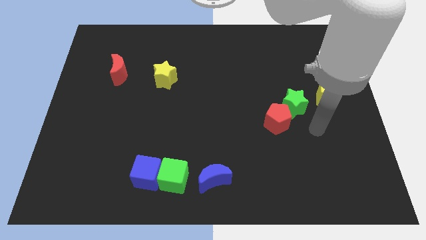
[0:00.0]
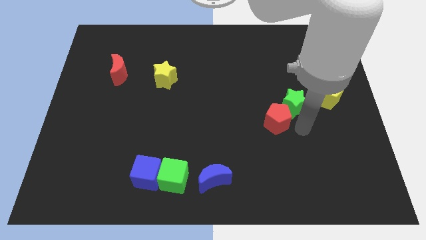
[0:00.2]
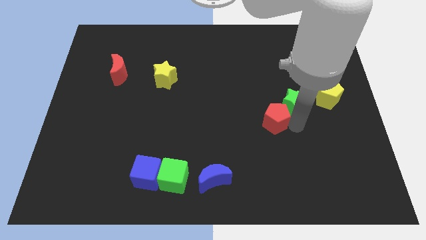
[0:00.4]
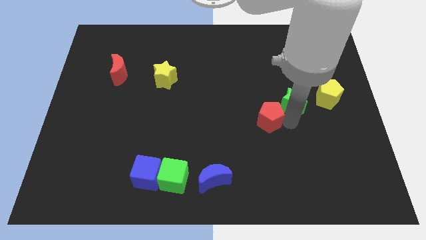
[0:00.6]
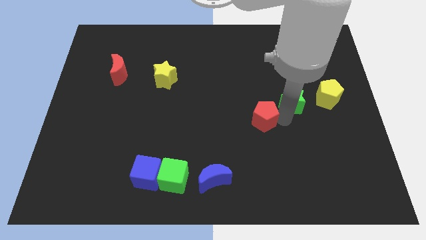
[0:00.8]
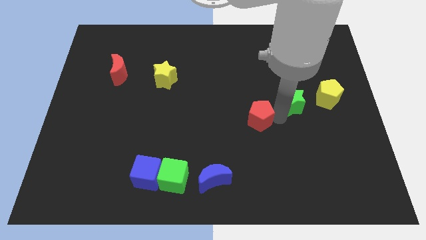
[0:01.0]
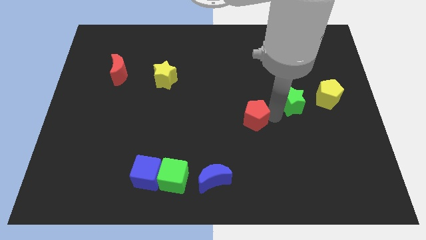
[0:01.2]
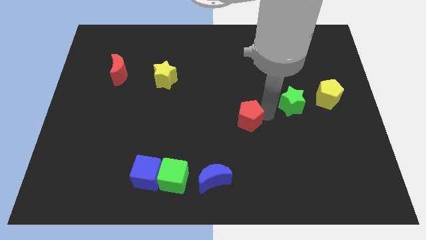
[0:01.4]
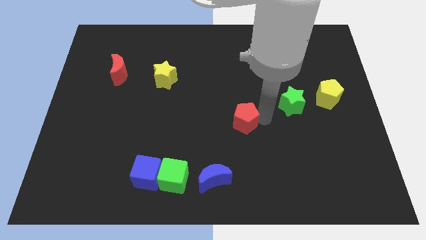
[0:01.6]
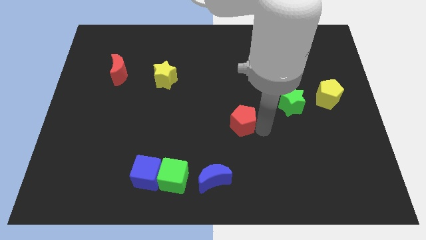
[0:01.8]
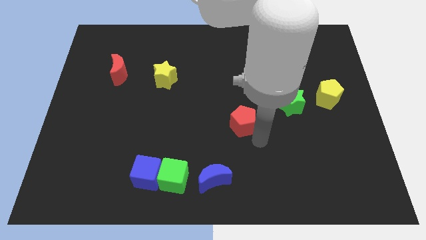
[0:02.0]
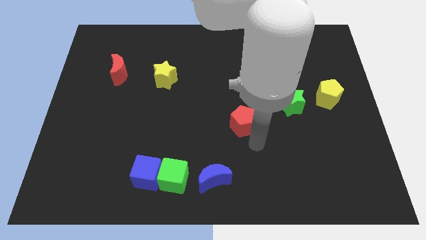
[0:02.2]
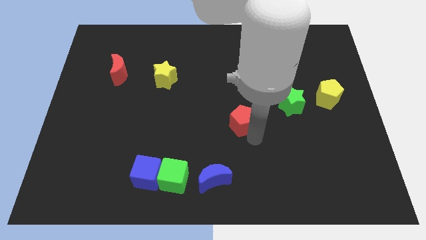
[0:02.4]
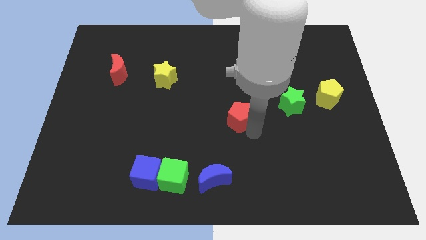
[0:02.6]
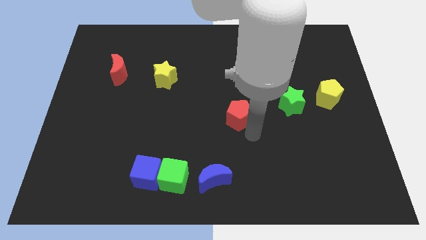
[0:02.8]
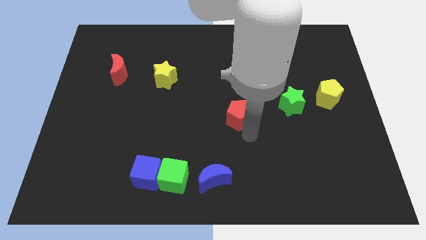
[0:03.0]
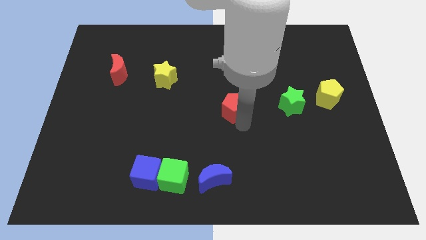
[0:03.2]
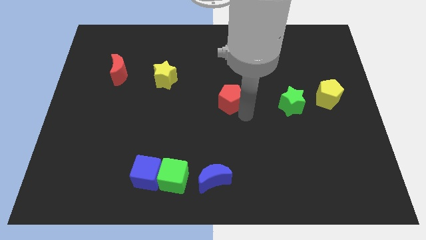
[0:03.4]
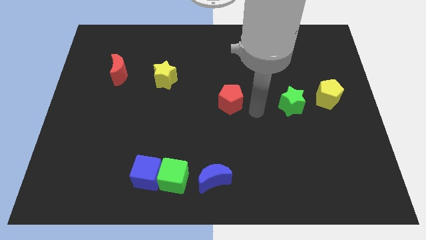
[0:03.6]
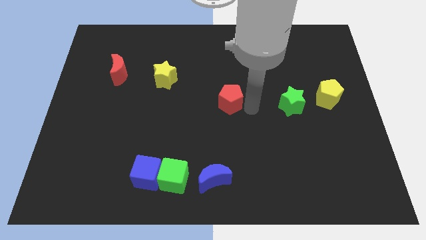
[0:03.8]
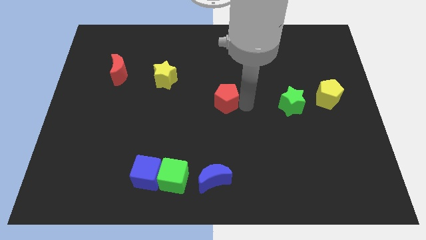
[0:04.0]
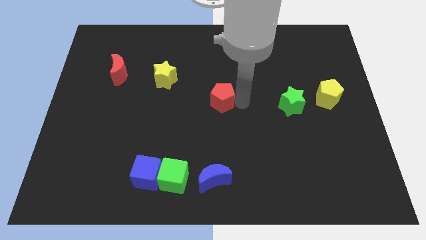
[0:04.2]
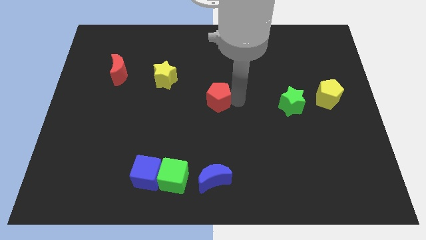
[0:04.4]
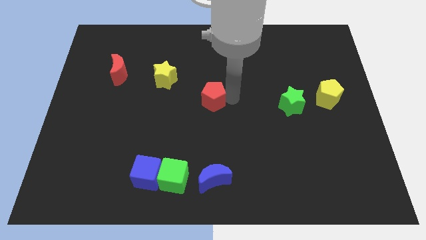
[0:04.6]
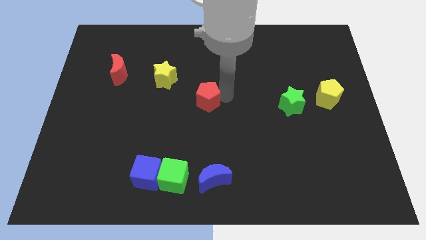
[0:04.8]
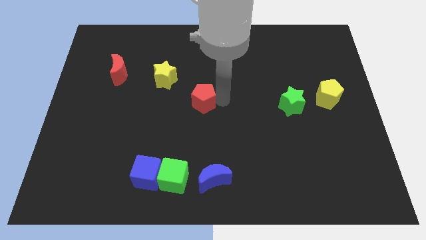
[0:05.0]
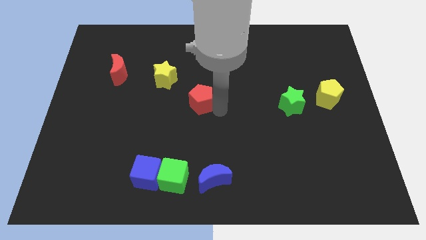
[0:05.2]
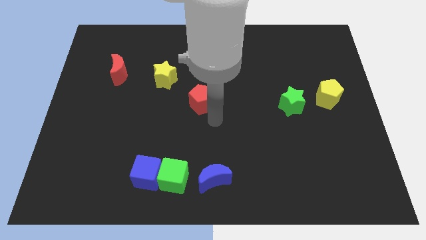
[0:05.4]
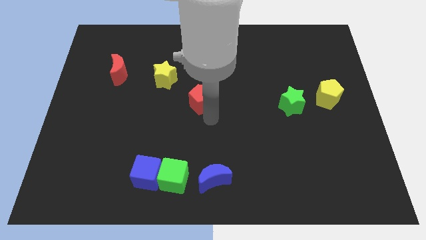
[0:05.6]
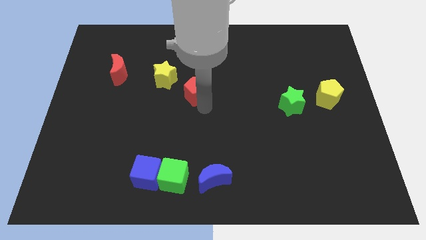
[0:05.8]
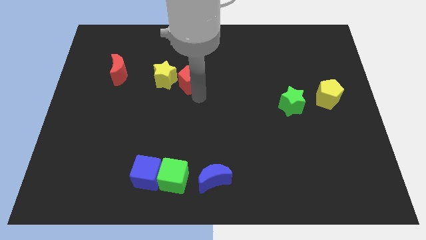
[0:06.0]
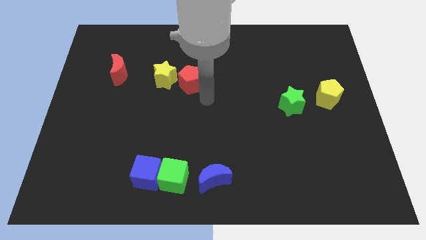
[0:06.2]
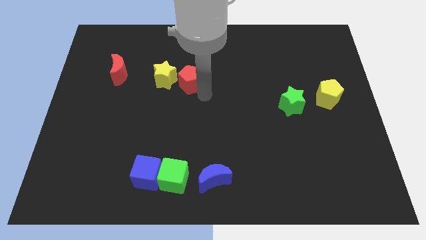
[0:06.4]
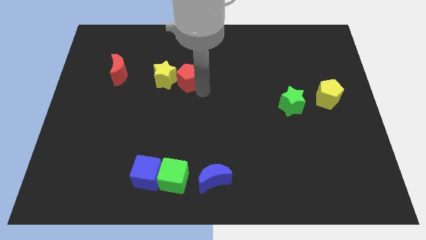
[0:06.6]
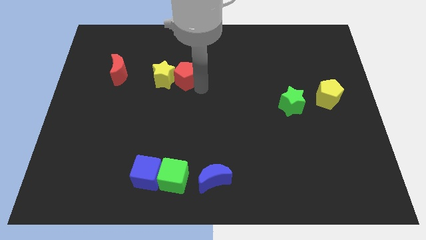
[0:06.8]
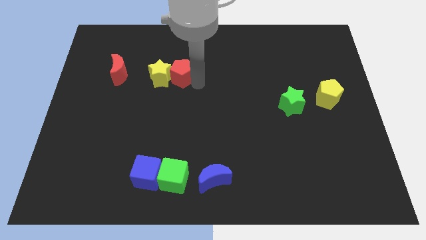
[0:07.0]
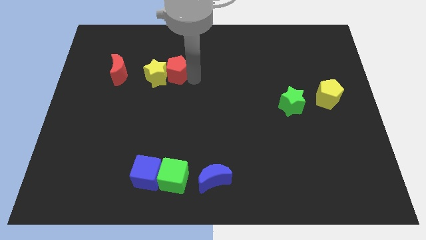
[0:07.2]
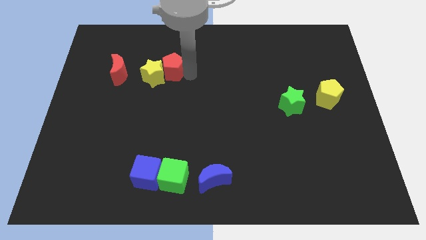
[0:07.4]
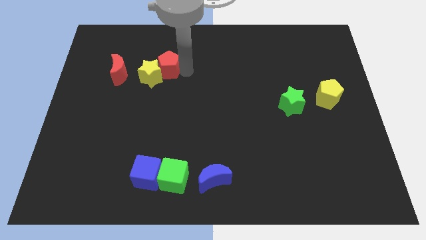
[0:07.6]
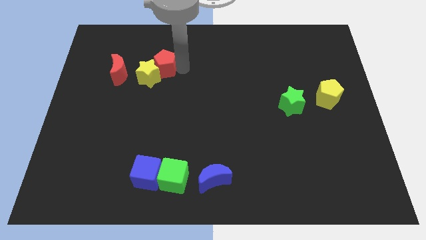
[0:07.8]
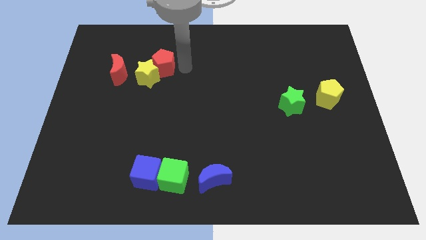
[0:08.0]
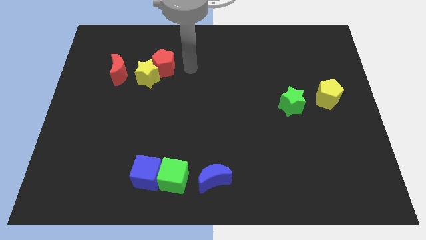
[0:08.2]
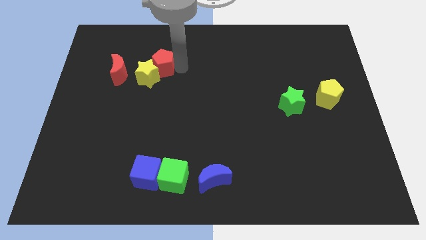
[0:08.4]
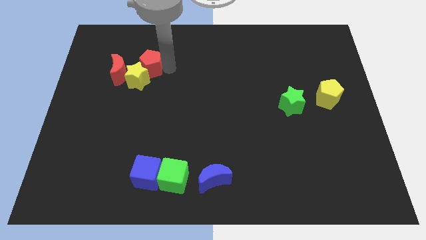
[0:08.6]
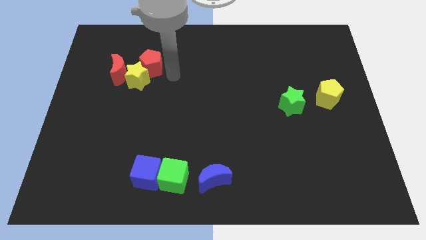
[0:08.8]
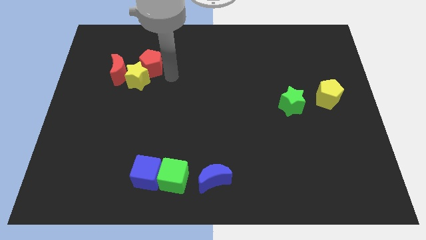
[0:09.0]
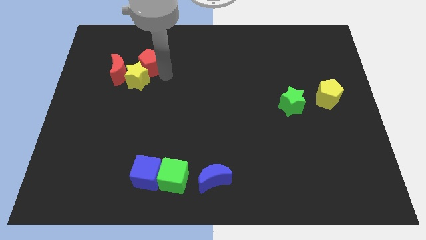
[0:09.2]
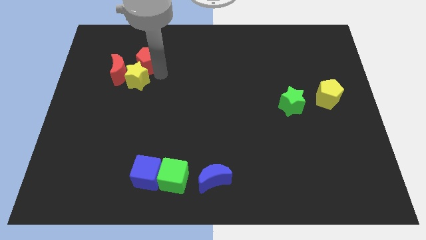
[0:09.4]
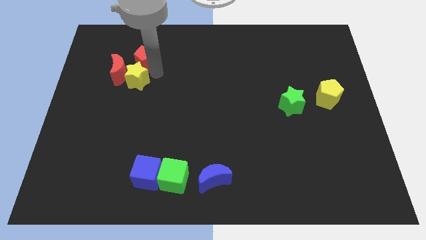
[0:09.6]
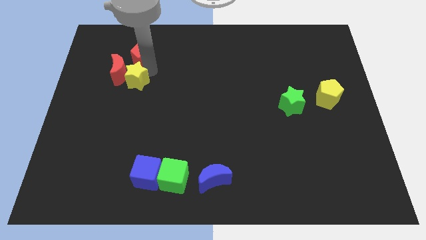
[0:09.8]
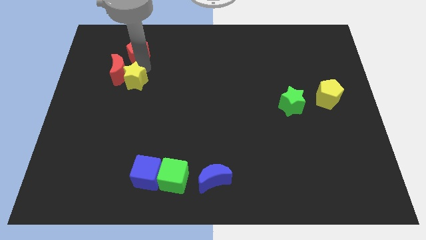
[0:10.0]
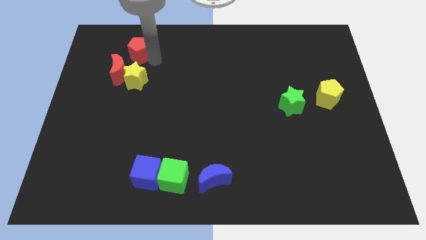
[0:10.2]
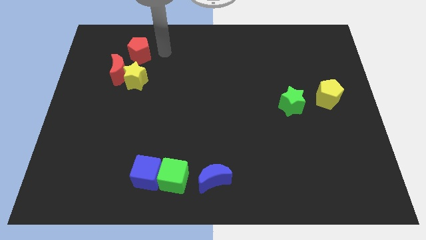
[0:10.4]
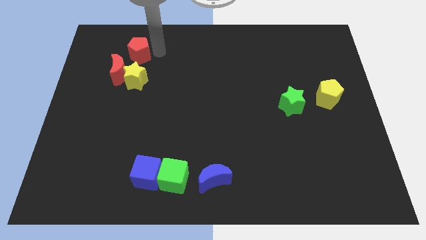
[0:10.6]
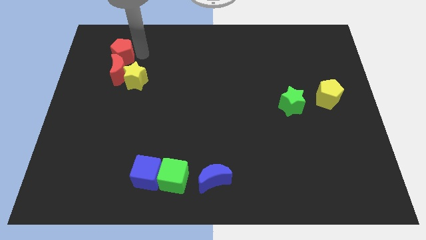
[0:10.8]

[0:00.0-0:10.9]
push the red pentagon diagonally up and to the left of the red moon

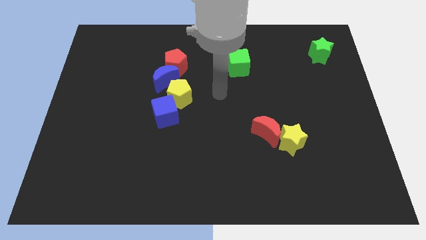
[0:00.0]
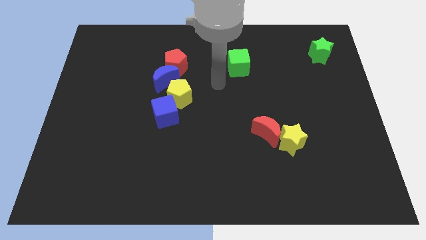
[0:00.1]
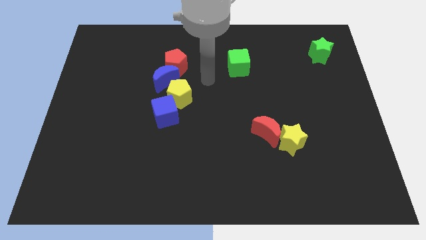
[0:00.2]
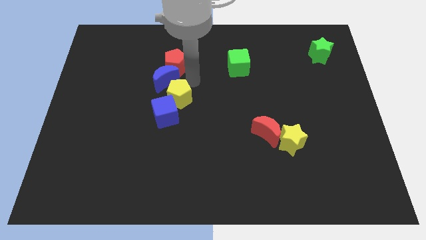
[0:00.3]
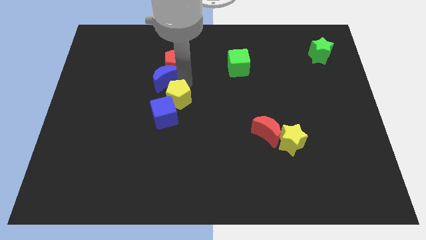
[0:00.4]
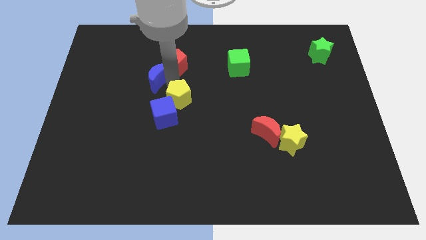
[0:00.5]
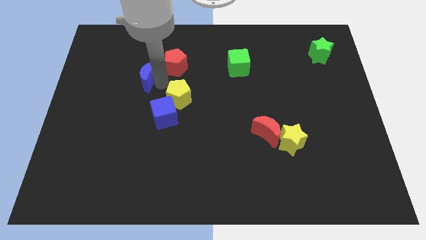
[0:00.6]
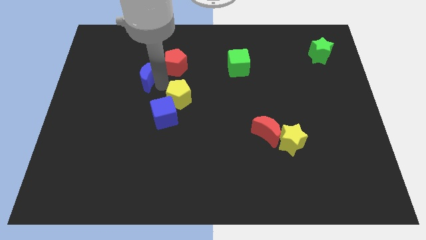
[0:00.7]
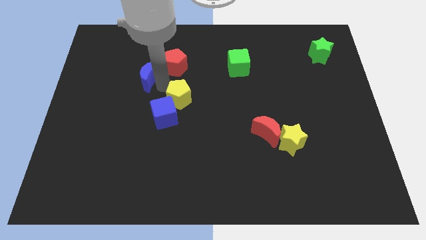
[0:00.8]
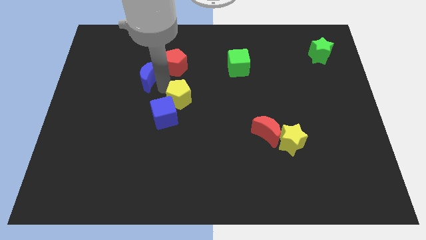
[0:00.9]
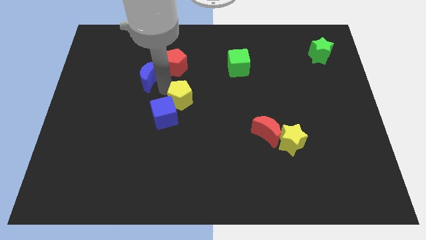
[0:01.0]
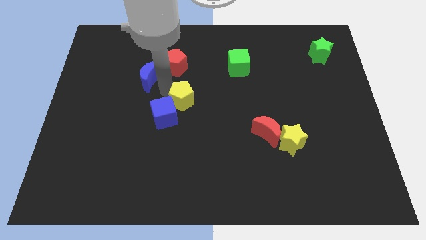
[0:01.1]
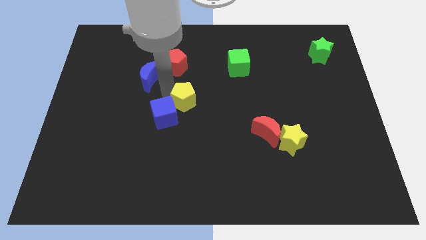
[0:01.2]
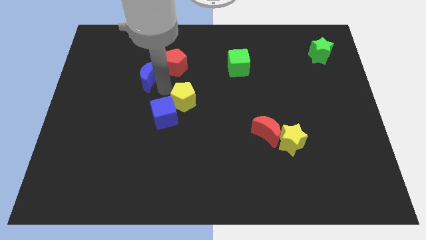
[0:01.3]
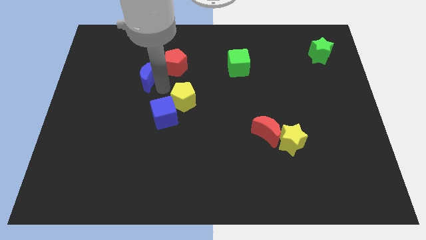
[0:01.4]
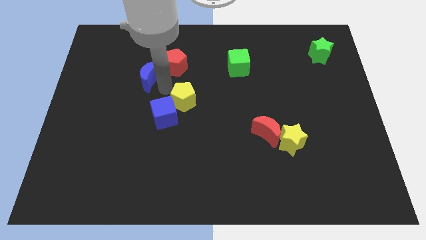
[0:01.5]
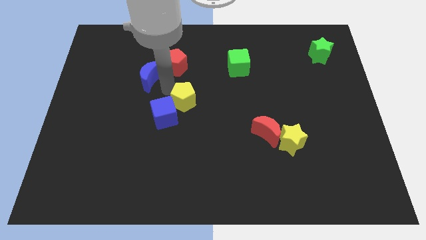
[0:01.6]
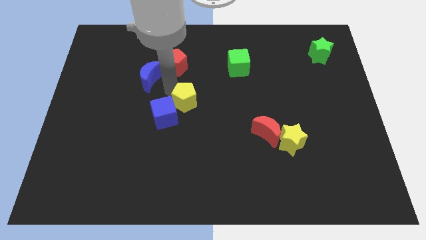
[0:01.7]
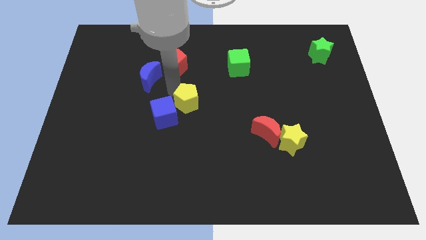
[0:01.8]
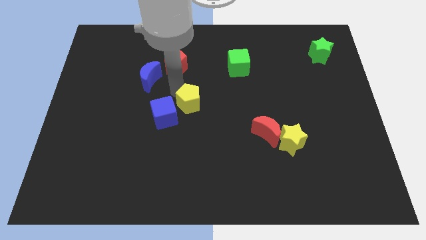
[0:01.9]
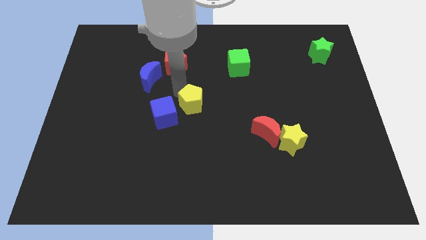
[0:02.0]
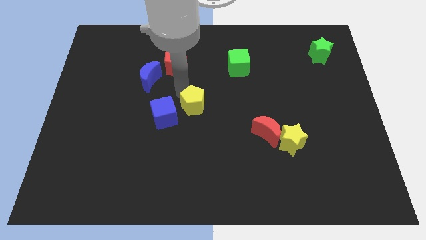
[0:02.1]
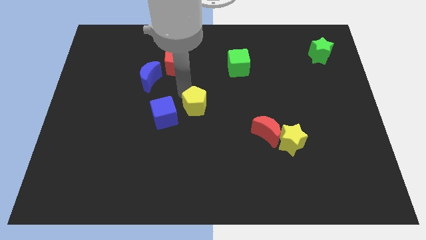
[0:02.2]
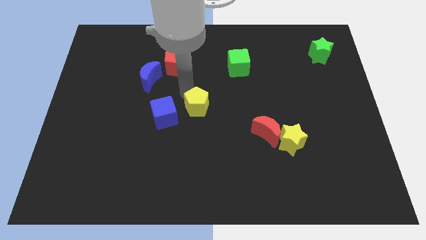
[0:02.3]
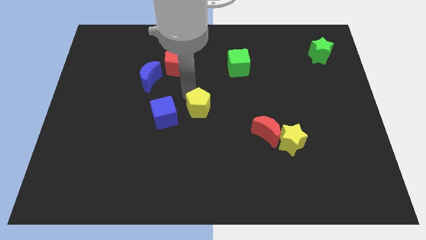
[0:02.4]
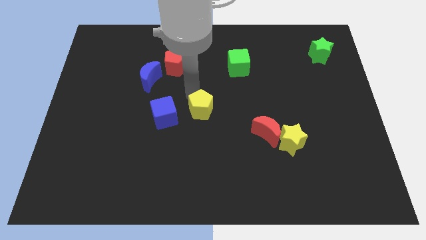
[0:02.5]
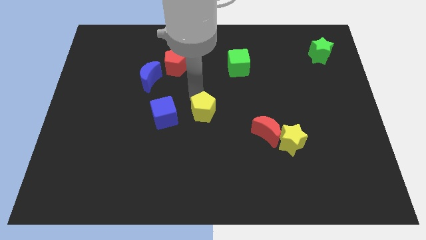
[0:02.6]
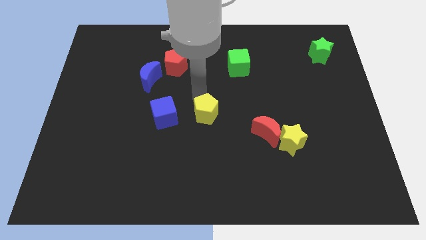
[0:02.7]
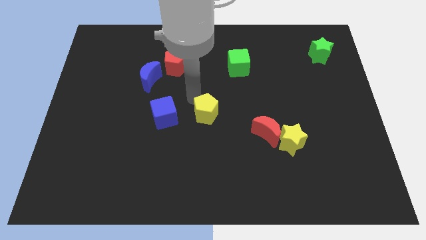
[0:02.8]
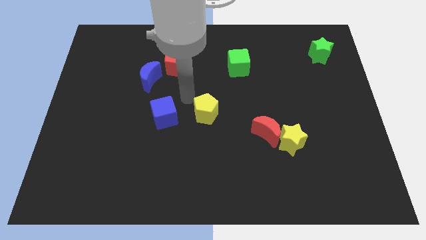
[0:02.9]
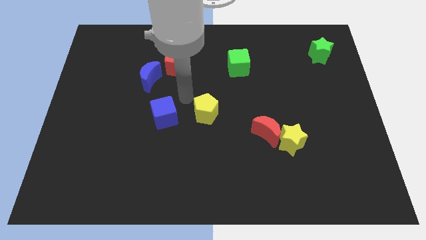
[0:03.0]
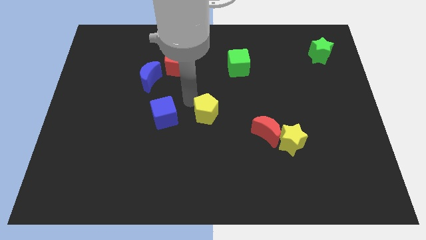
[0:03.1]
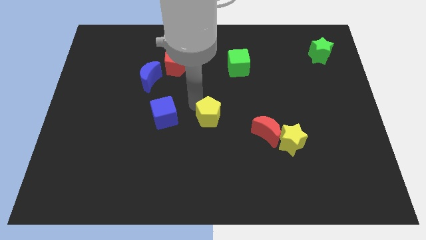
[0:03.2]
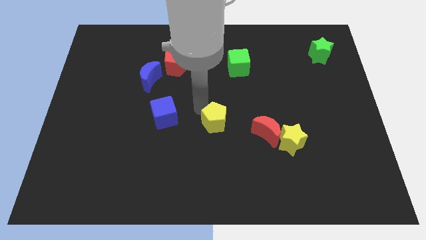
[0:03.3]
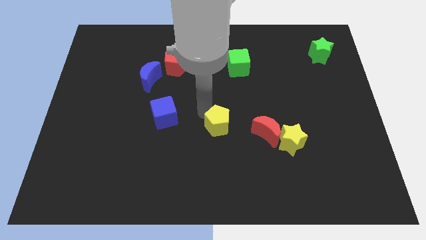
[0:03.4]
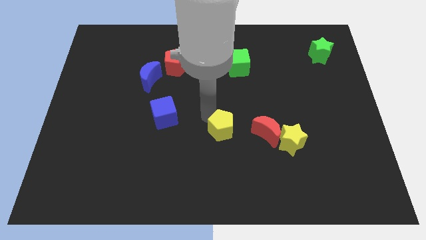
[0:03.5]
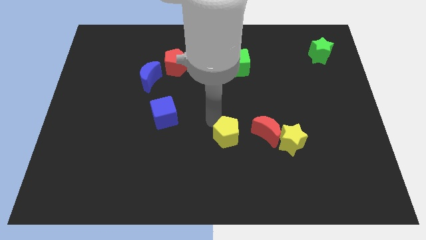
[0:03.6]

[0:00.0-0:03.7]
push the yellow pentagon to the left side of the yellow star
